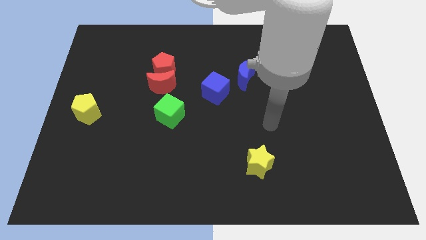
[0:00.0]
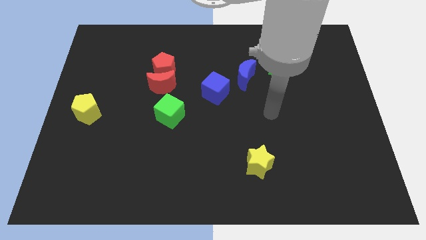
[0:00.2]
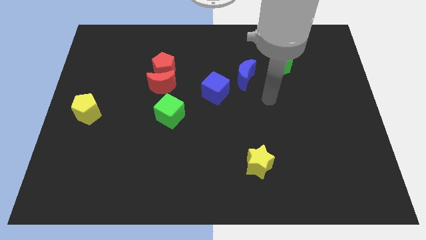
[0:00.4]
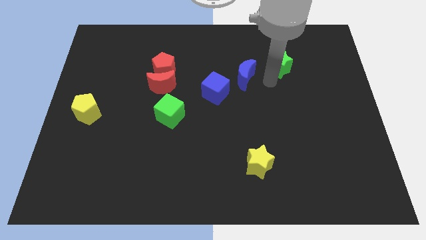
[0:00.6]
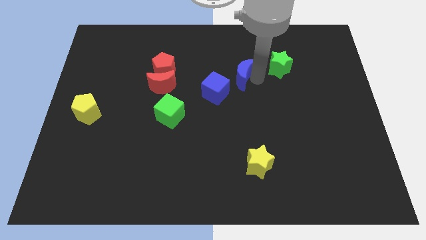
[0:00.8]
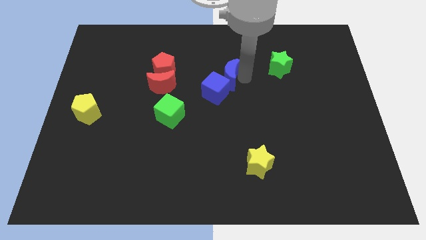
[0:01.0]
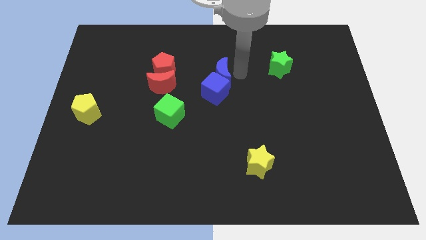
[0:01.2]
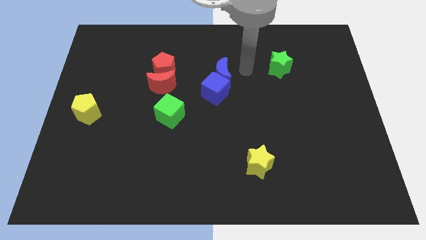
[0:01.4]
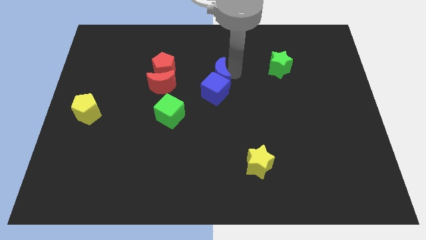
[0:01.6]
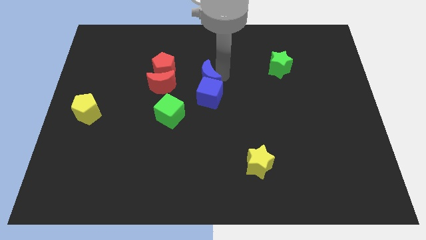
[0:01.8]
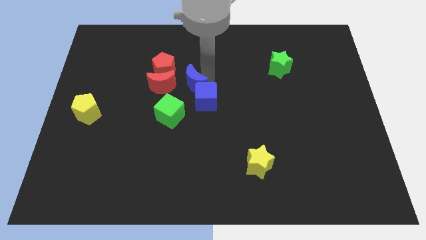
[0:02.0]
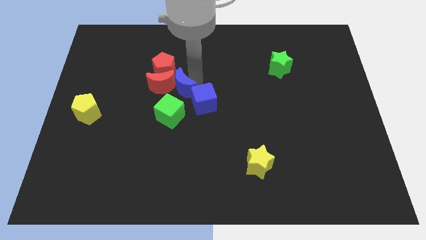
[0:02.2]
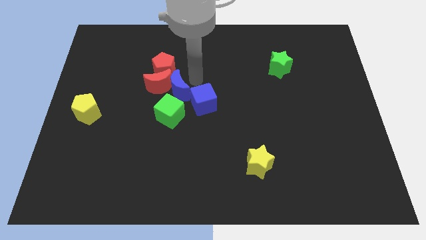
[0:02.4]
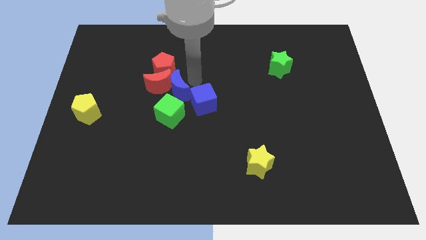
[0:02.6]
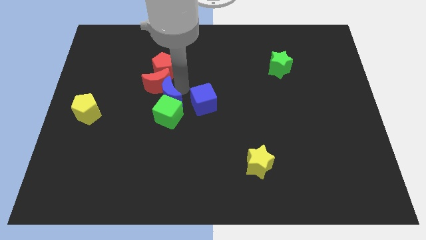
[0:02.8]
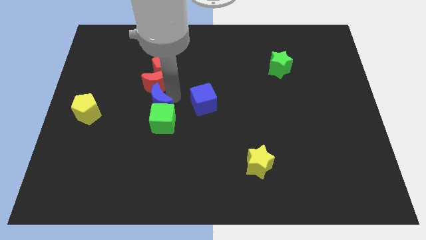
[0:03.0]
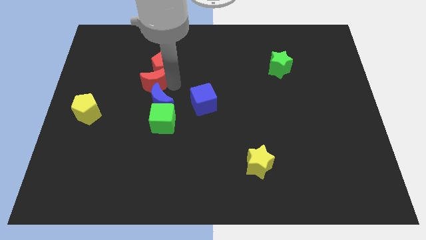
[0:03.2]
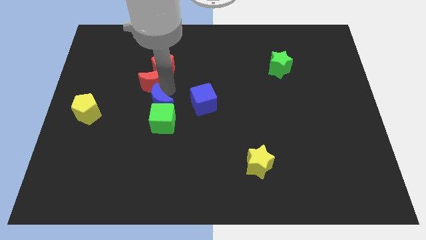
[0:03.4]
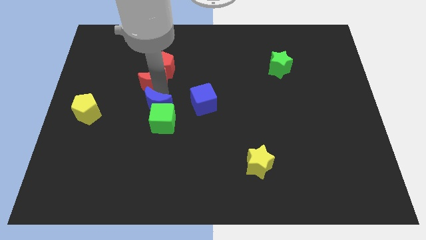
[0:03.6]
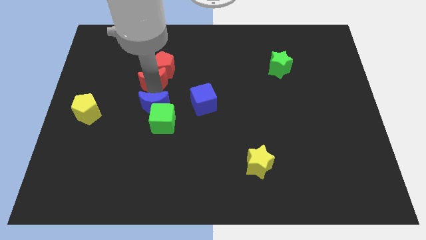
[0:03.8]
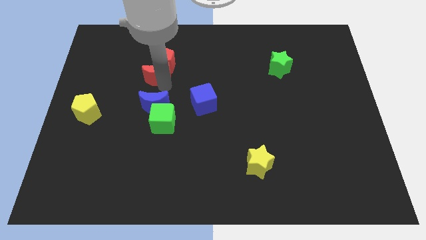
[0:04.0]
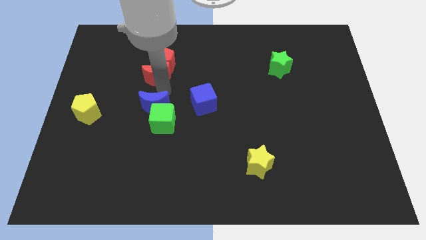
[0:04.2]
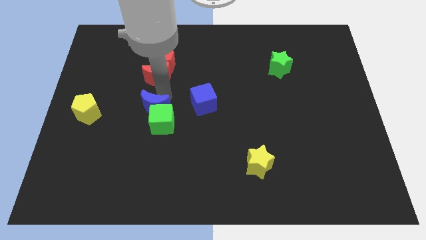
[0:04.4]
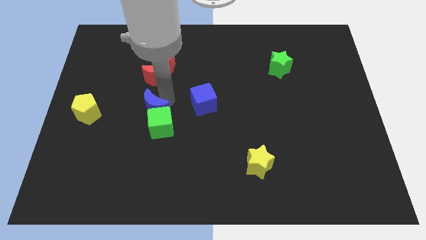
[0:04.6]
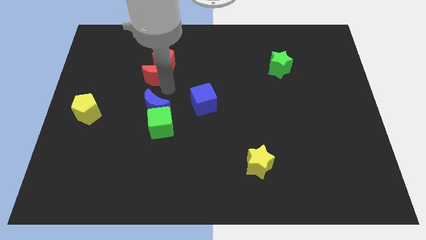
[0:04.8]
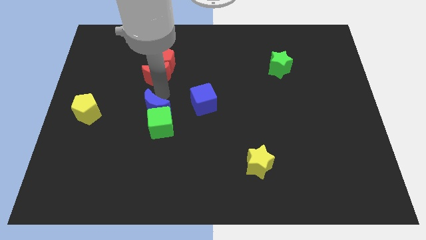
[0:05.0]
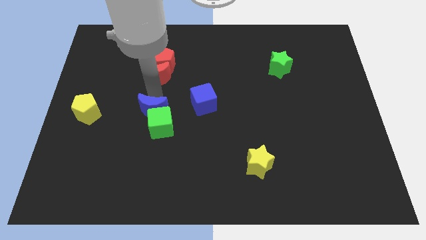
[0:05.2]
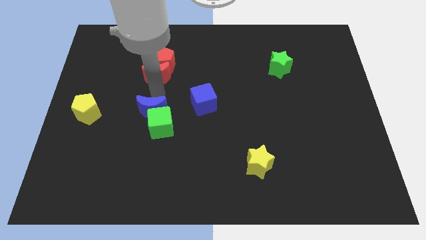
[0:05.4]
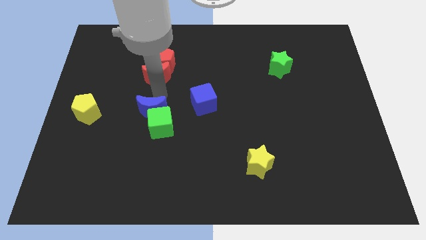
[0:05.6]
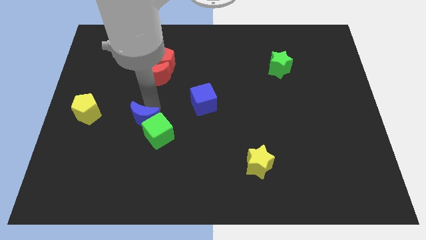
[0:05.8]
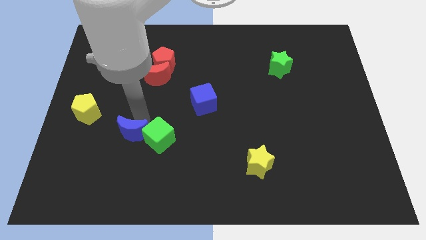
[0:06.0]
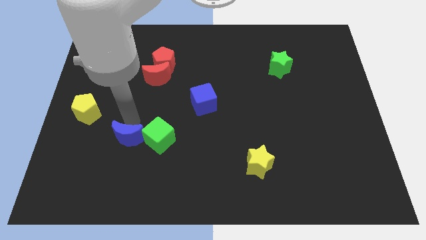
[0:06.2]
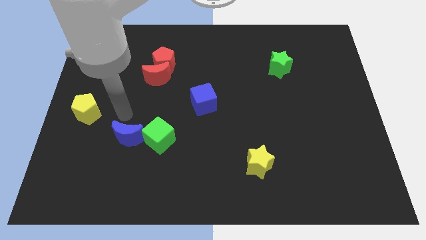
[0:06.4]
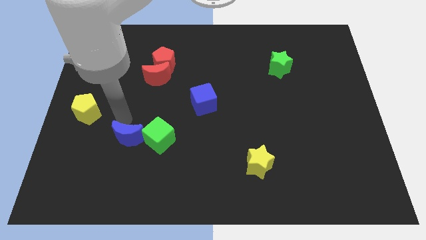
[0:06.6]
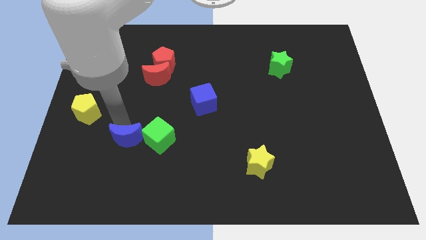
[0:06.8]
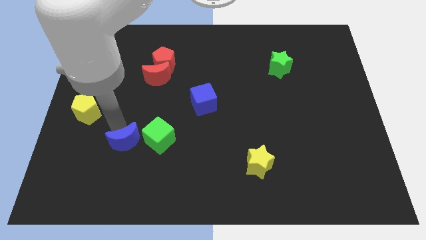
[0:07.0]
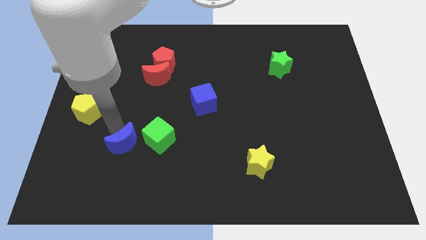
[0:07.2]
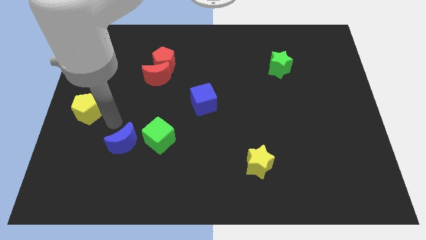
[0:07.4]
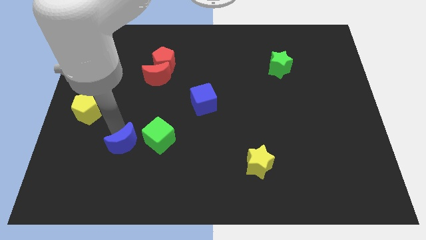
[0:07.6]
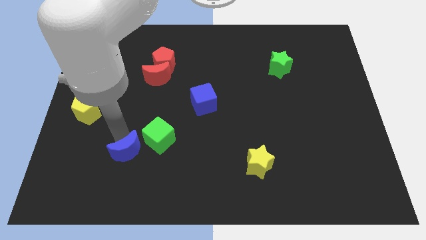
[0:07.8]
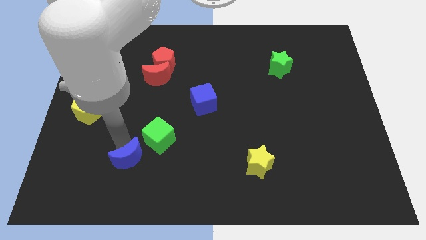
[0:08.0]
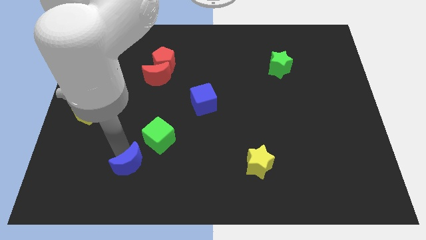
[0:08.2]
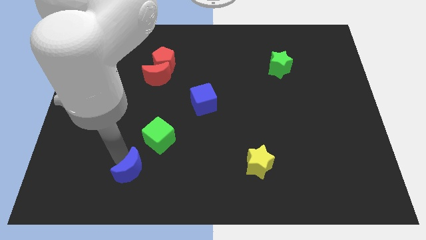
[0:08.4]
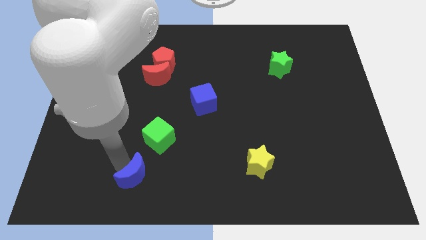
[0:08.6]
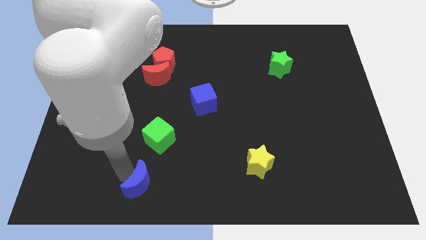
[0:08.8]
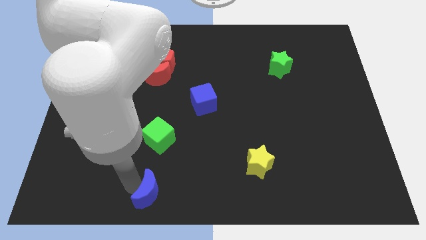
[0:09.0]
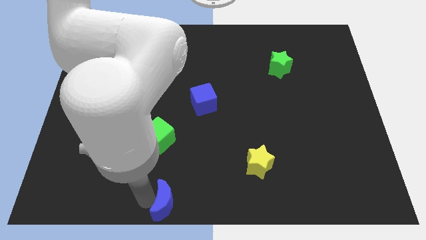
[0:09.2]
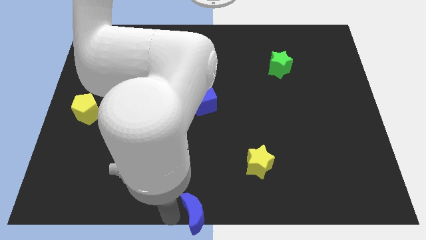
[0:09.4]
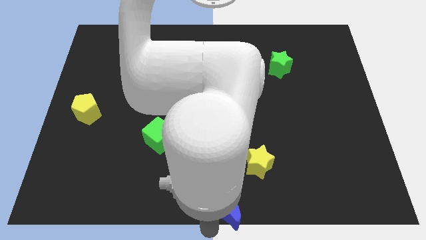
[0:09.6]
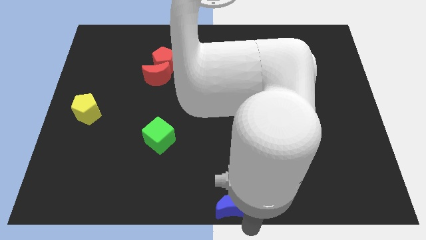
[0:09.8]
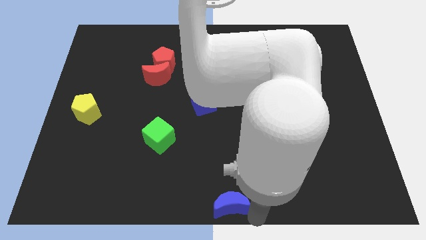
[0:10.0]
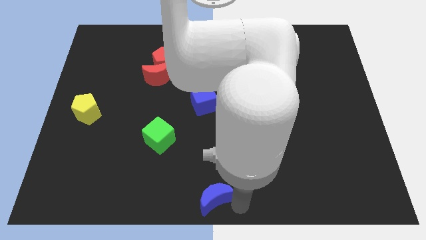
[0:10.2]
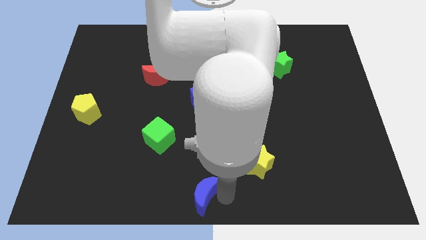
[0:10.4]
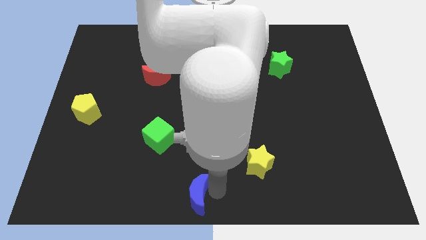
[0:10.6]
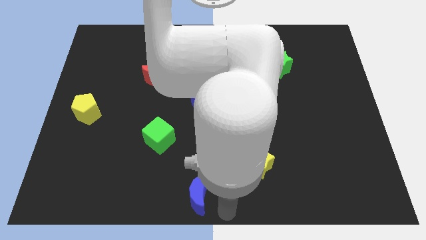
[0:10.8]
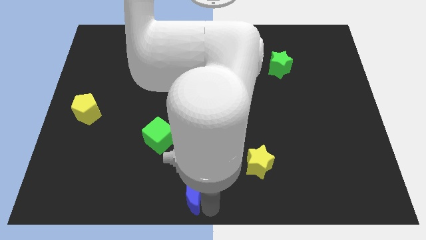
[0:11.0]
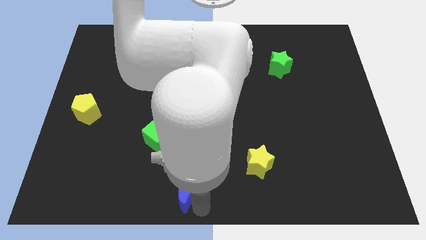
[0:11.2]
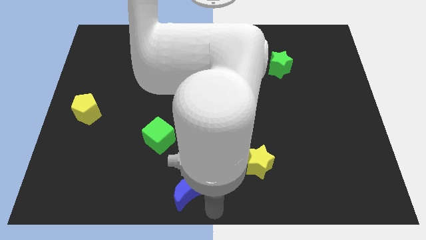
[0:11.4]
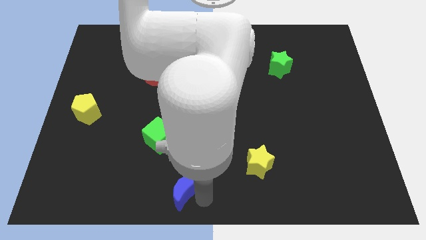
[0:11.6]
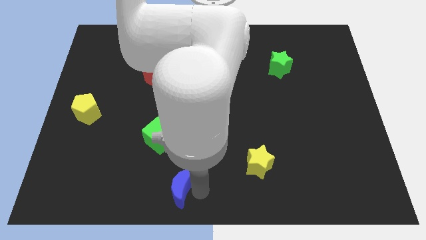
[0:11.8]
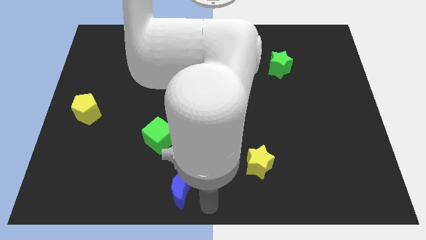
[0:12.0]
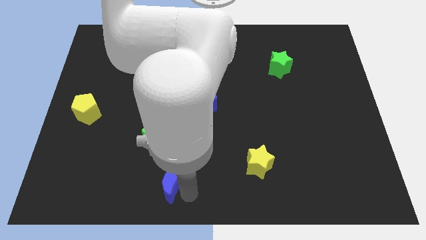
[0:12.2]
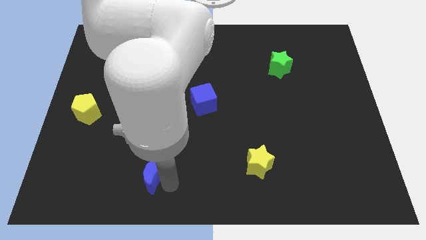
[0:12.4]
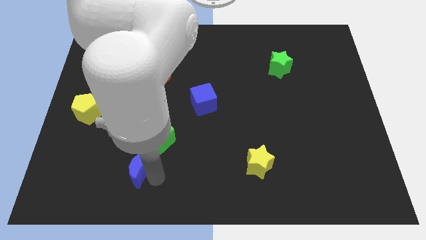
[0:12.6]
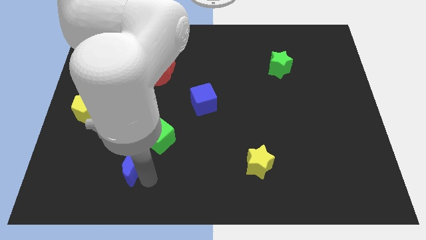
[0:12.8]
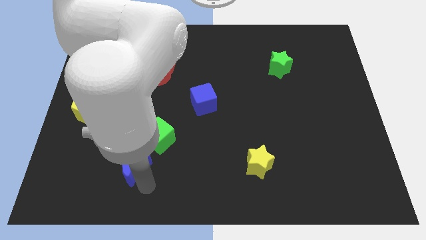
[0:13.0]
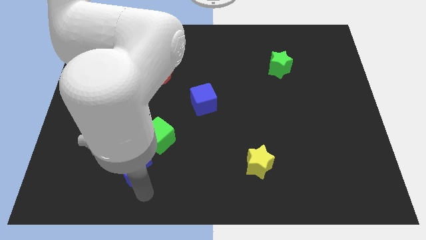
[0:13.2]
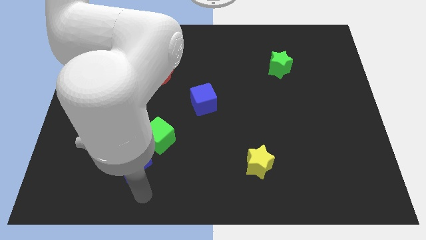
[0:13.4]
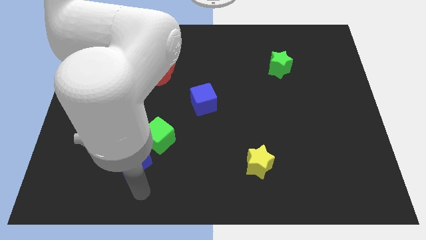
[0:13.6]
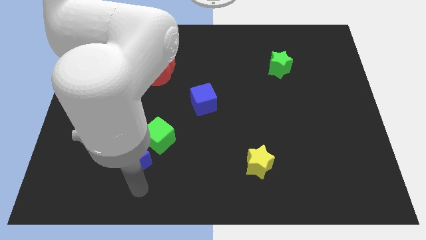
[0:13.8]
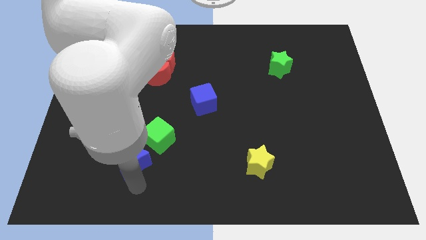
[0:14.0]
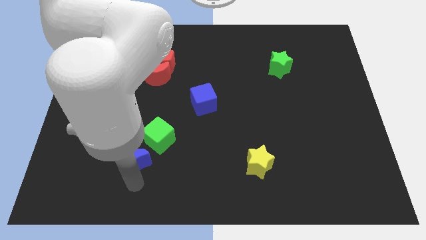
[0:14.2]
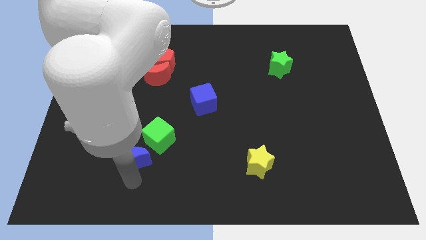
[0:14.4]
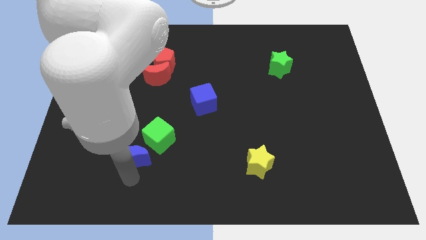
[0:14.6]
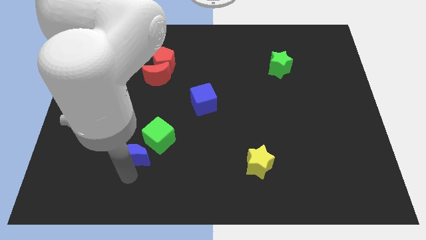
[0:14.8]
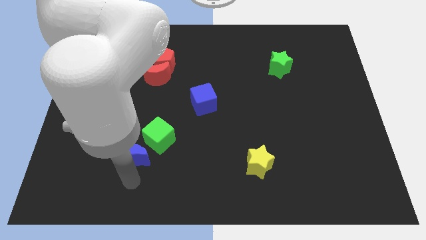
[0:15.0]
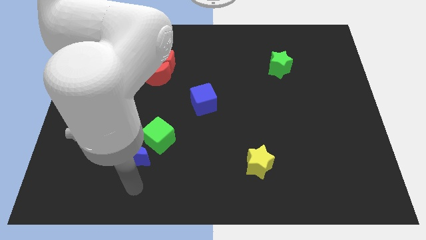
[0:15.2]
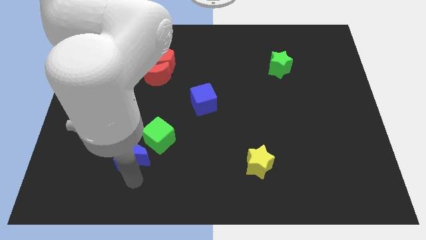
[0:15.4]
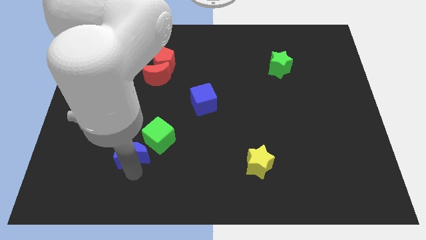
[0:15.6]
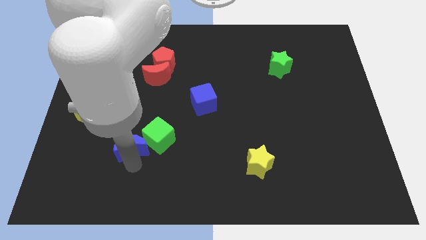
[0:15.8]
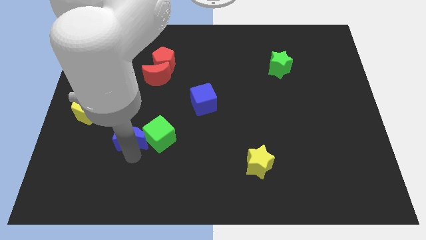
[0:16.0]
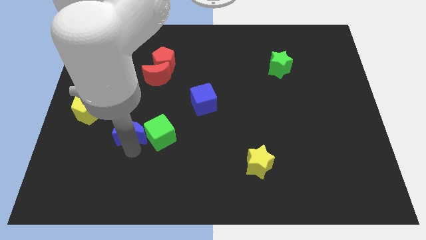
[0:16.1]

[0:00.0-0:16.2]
move the blue moon to the bottom left side of the green cube
